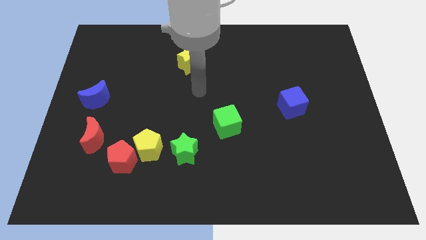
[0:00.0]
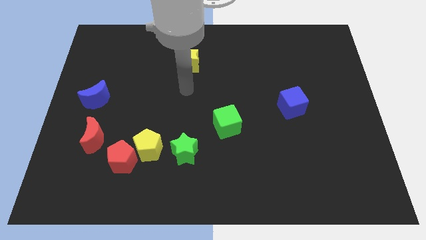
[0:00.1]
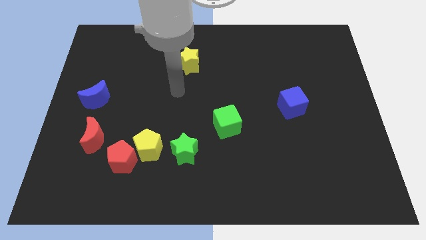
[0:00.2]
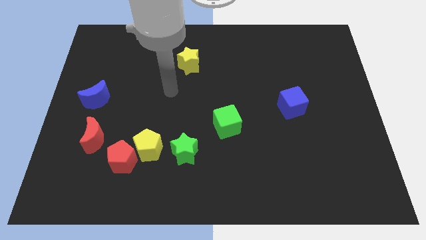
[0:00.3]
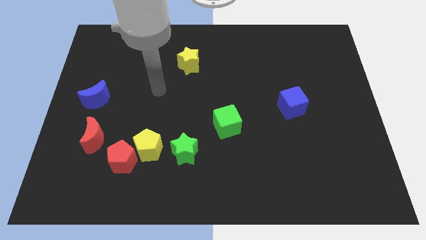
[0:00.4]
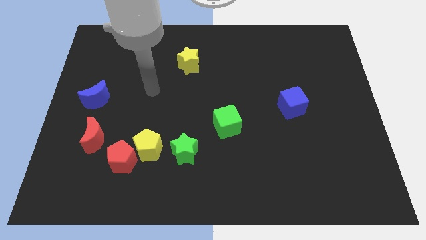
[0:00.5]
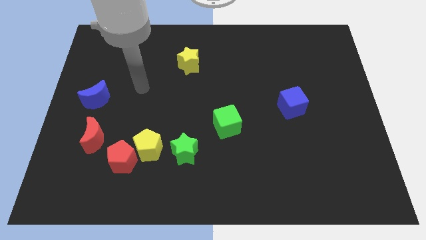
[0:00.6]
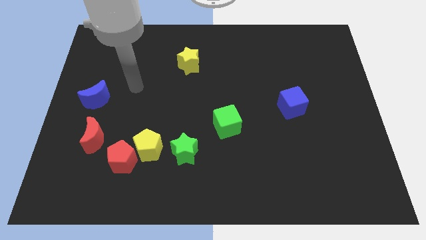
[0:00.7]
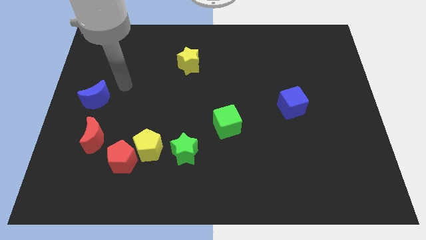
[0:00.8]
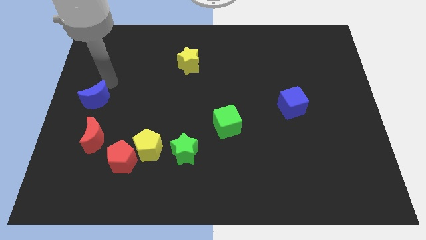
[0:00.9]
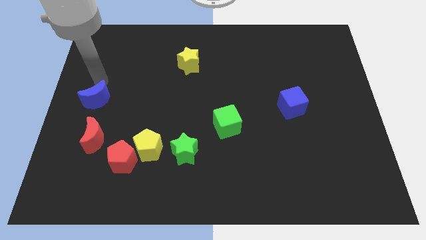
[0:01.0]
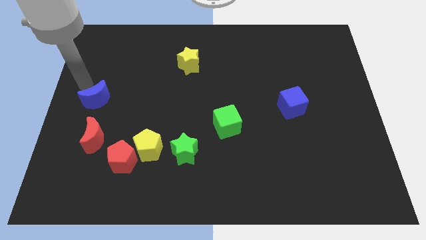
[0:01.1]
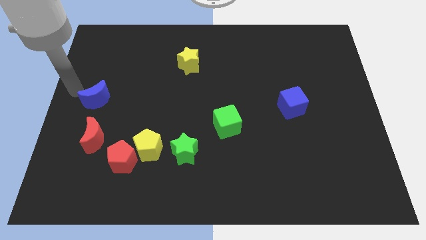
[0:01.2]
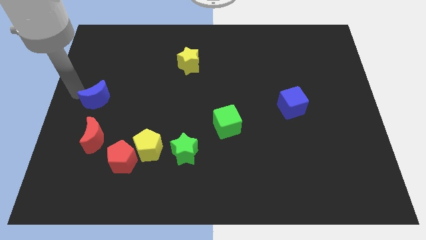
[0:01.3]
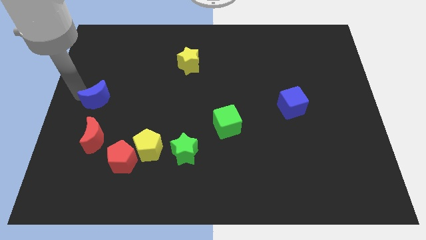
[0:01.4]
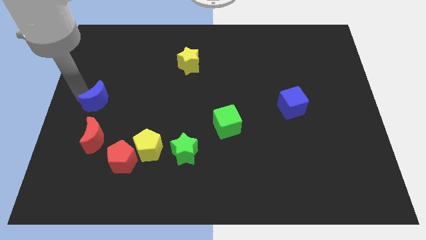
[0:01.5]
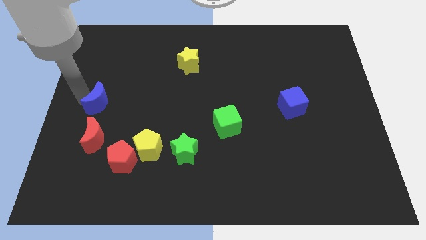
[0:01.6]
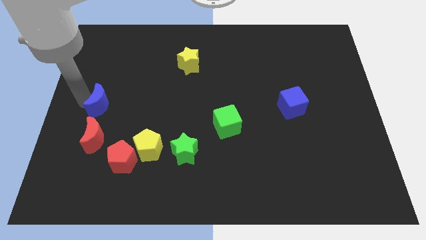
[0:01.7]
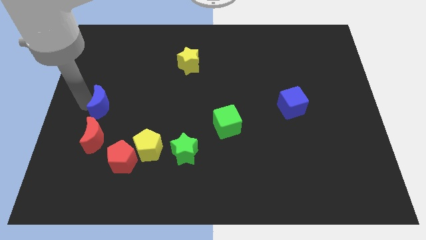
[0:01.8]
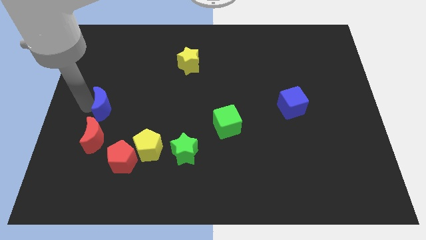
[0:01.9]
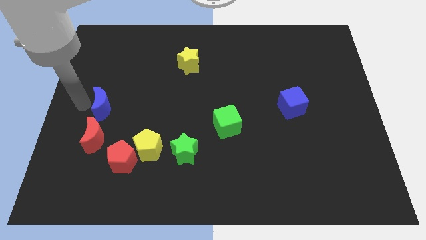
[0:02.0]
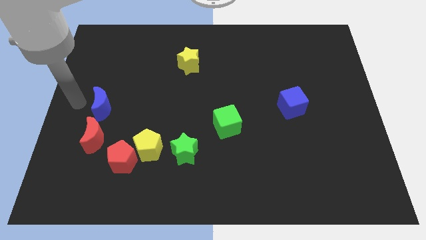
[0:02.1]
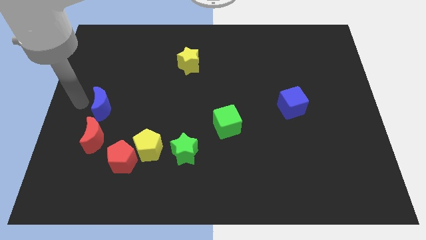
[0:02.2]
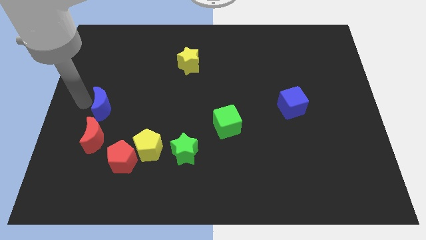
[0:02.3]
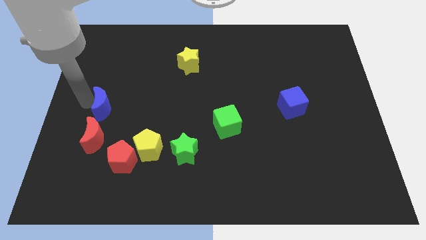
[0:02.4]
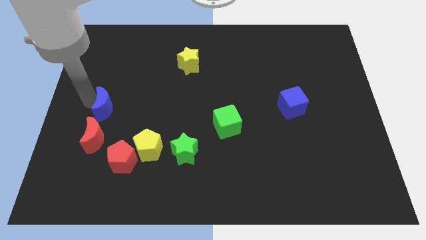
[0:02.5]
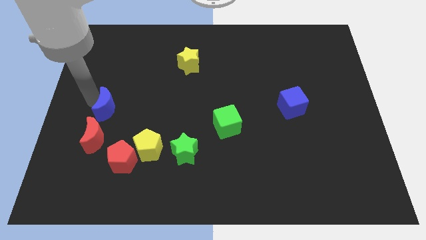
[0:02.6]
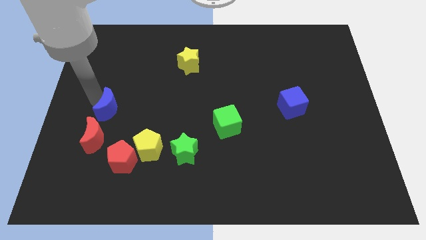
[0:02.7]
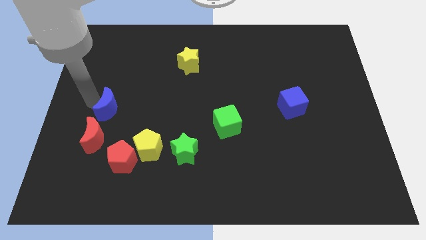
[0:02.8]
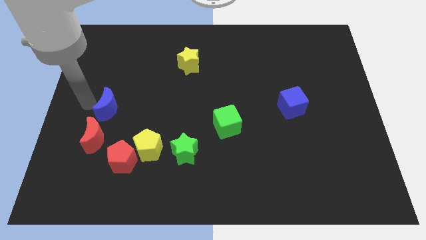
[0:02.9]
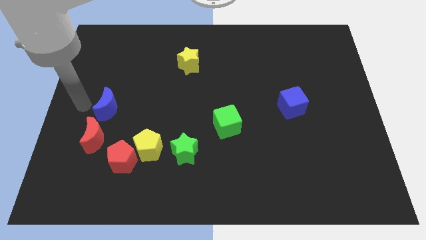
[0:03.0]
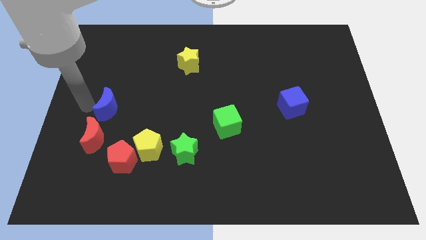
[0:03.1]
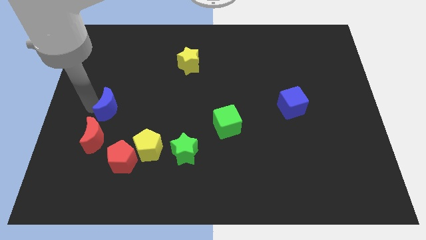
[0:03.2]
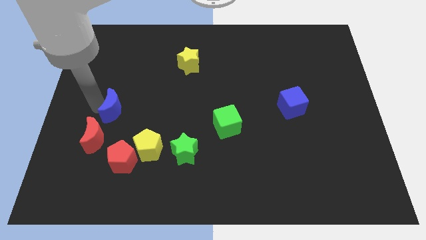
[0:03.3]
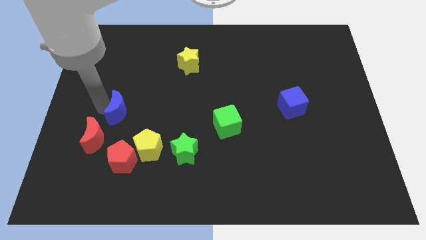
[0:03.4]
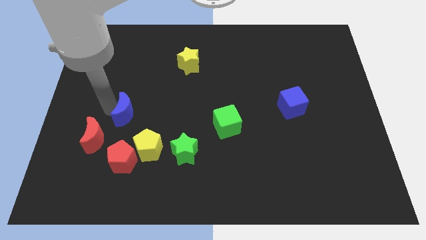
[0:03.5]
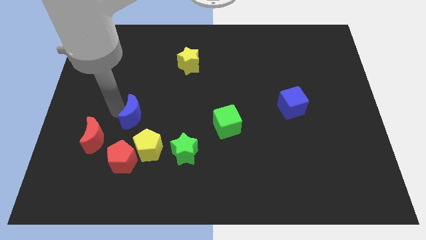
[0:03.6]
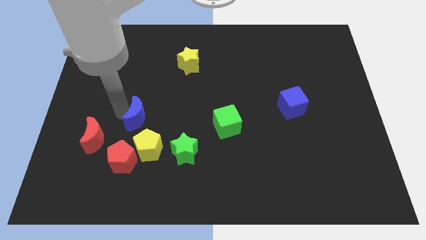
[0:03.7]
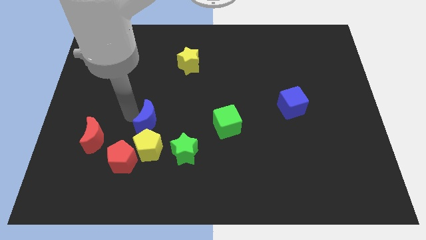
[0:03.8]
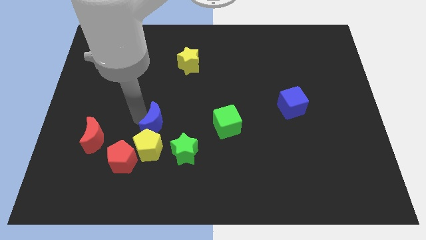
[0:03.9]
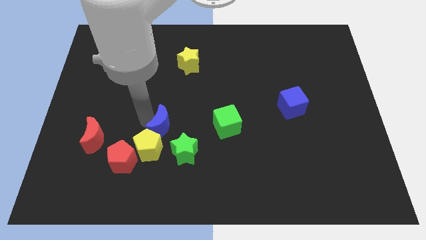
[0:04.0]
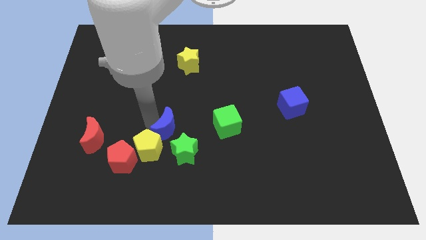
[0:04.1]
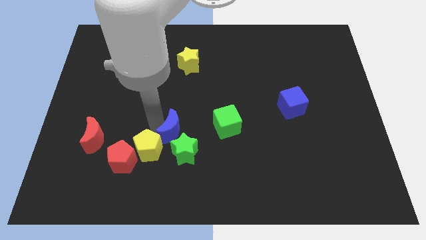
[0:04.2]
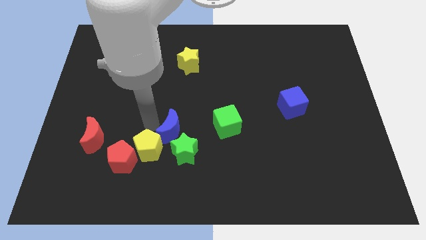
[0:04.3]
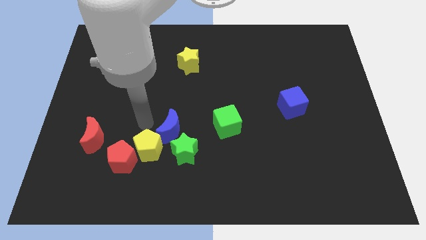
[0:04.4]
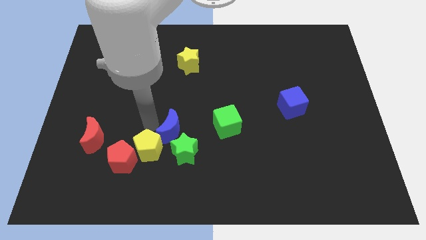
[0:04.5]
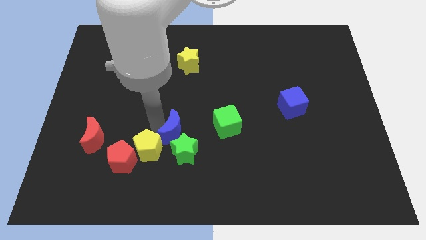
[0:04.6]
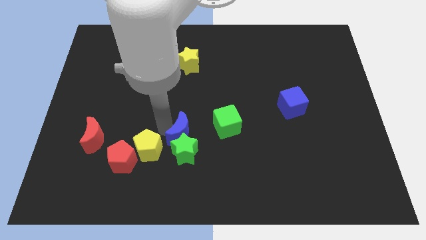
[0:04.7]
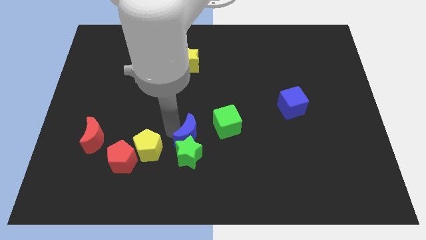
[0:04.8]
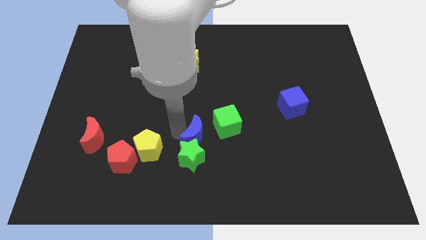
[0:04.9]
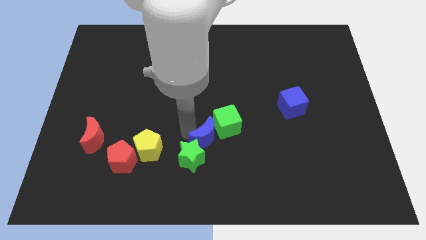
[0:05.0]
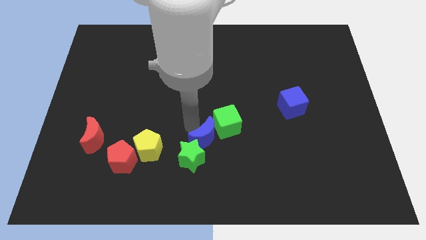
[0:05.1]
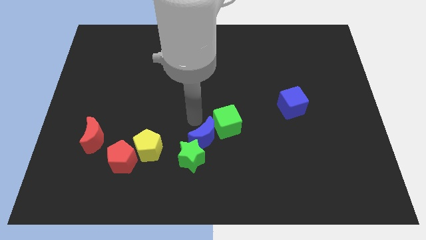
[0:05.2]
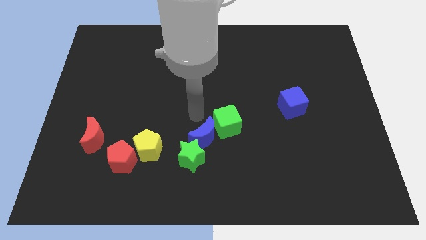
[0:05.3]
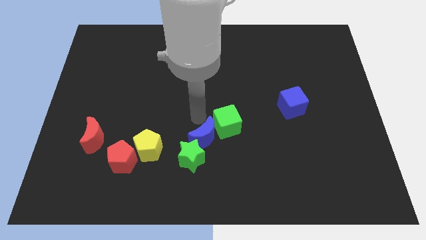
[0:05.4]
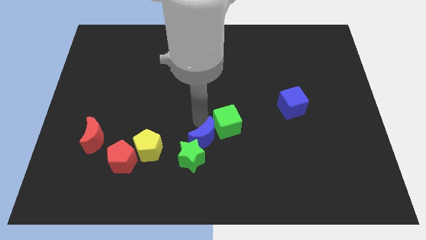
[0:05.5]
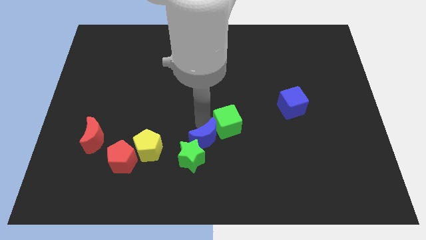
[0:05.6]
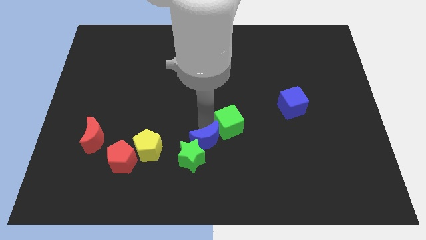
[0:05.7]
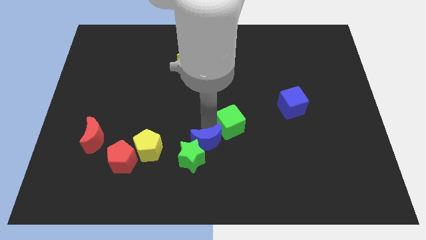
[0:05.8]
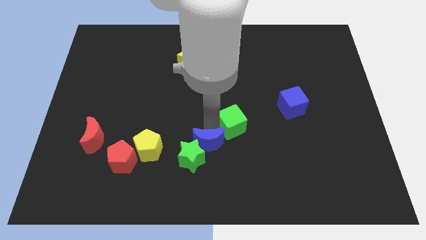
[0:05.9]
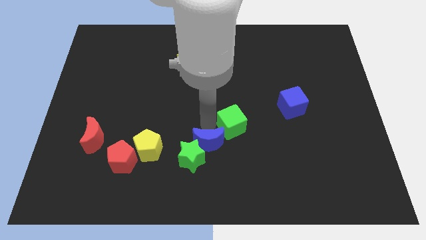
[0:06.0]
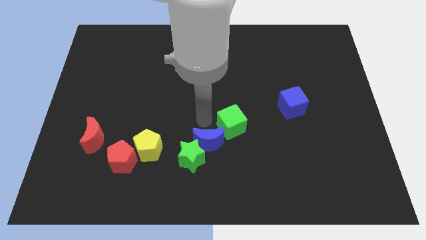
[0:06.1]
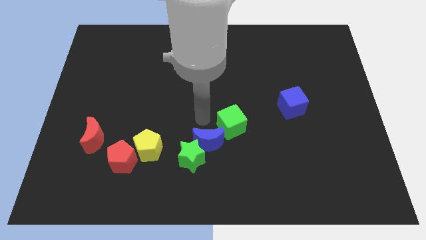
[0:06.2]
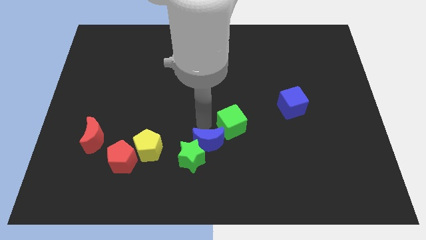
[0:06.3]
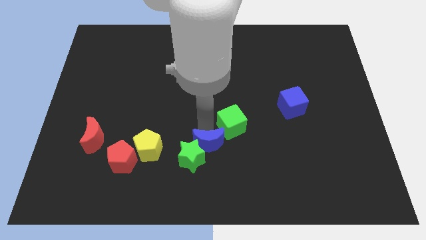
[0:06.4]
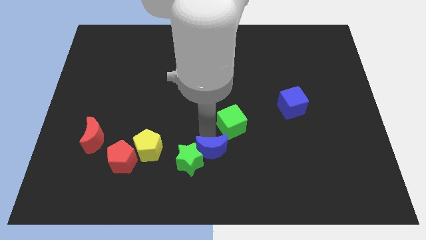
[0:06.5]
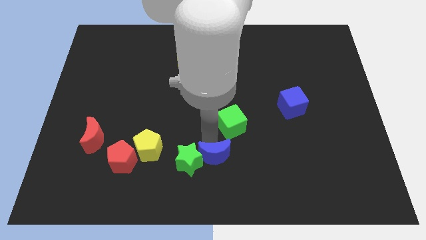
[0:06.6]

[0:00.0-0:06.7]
move the blue moon to the bottom side

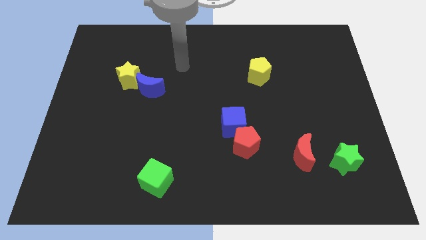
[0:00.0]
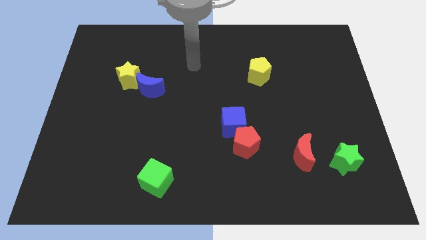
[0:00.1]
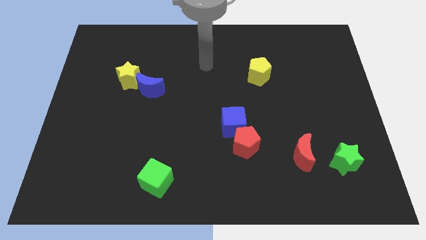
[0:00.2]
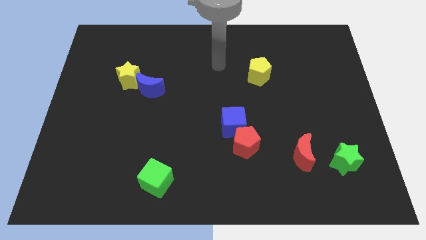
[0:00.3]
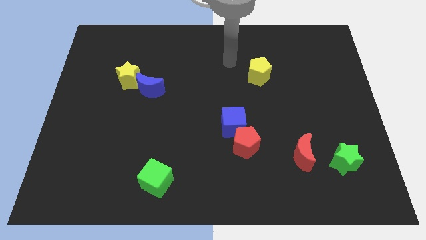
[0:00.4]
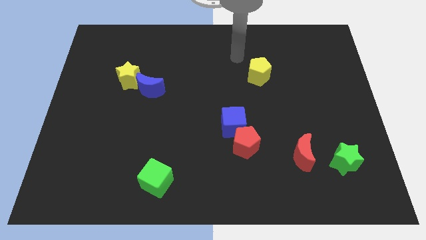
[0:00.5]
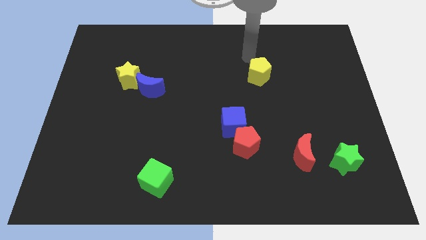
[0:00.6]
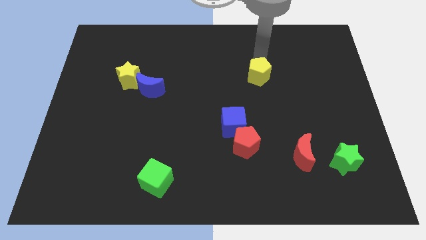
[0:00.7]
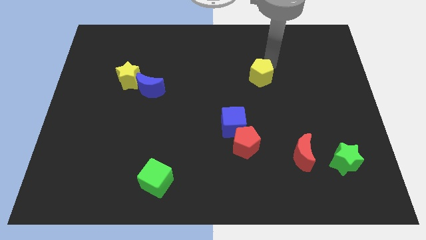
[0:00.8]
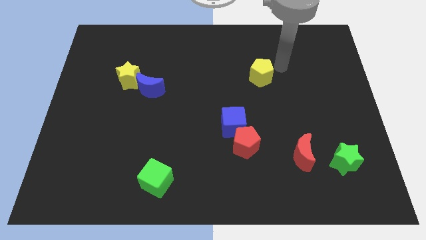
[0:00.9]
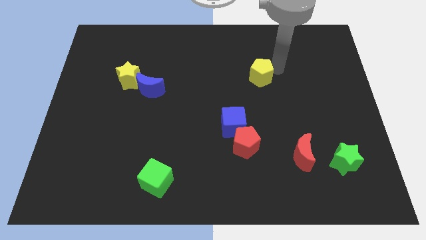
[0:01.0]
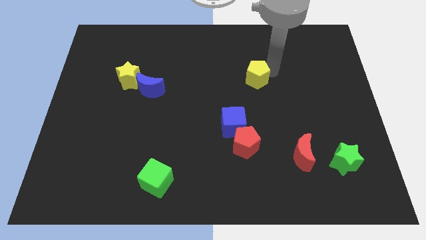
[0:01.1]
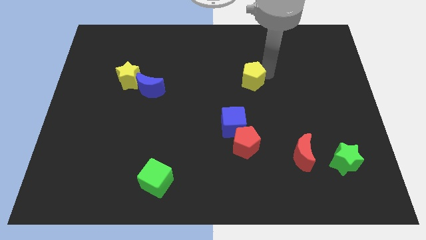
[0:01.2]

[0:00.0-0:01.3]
push the yellow pentagon to the center of the board
